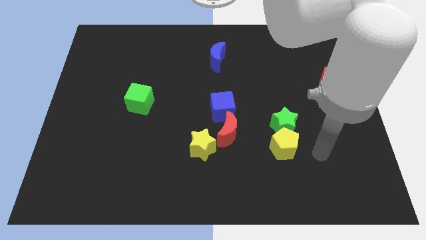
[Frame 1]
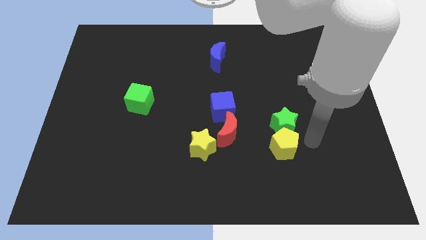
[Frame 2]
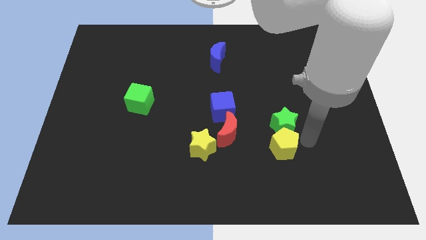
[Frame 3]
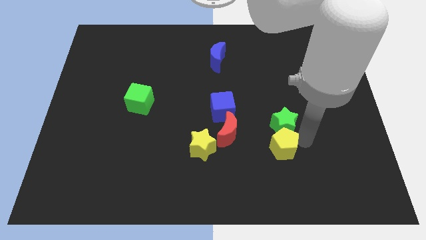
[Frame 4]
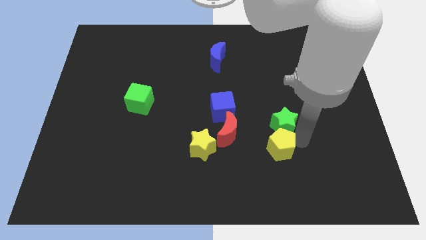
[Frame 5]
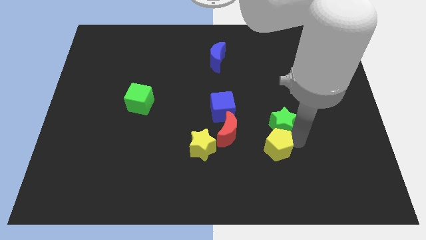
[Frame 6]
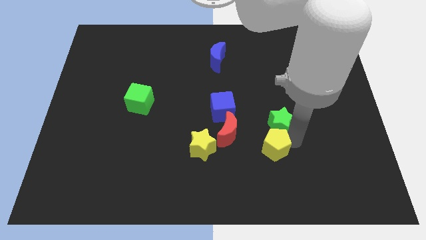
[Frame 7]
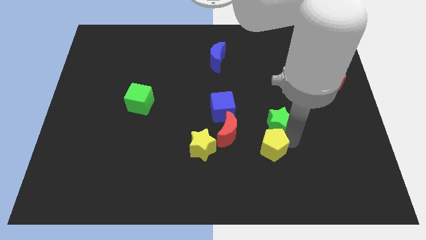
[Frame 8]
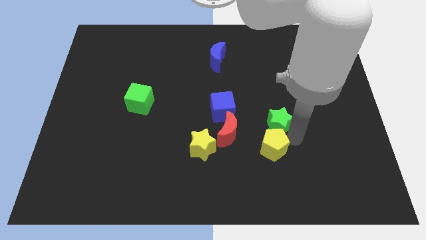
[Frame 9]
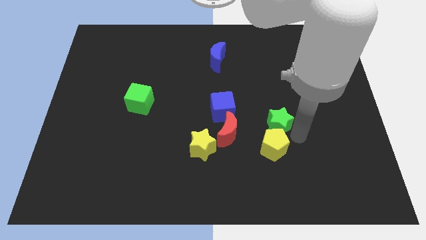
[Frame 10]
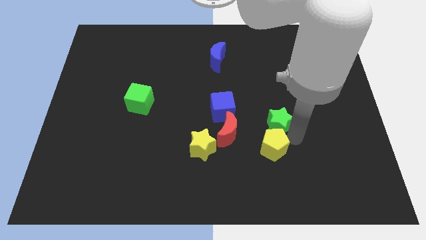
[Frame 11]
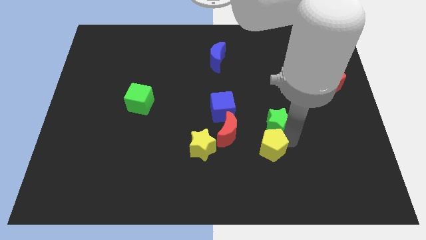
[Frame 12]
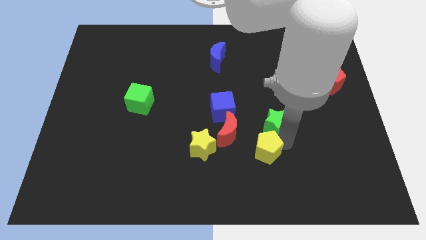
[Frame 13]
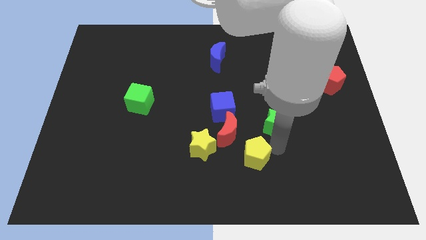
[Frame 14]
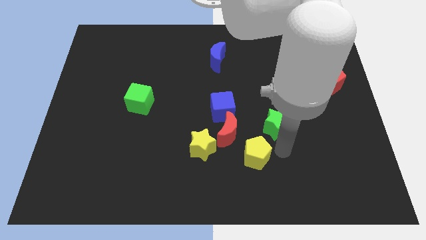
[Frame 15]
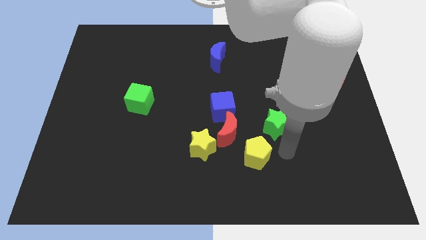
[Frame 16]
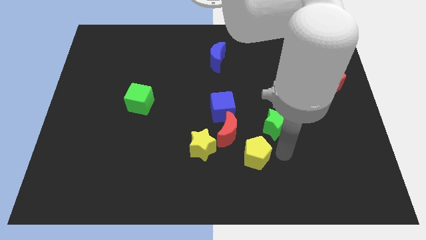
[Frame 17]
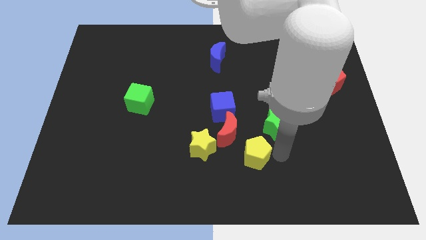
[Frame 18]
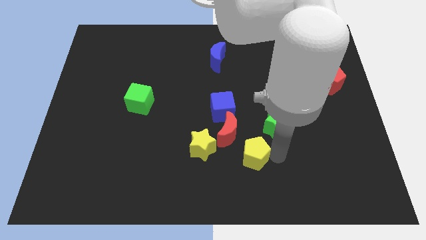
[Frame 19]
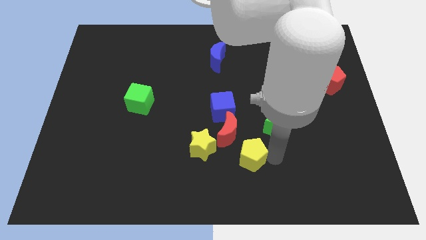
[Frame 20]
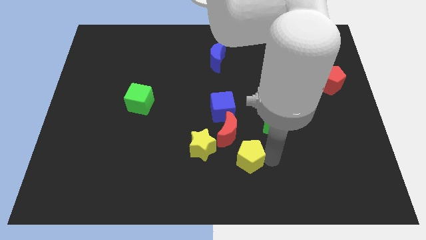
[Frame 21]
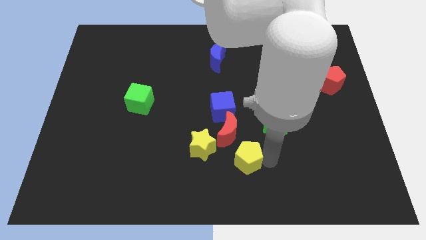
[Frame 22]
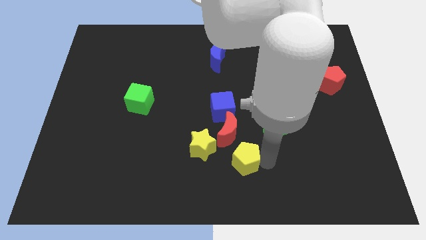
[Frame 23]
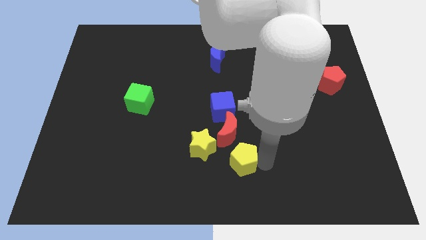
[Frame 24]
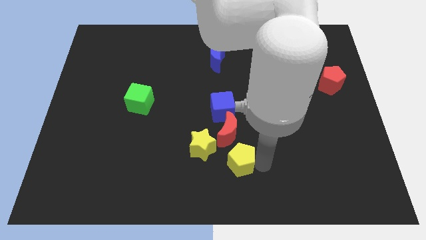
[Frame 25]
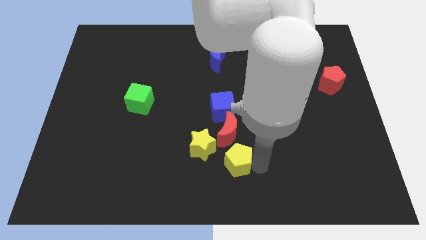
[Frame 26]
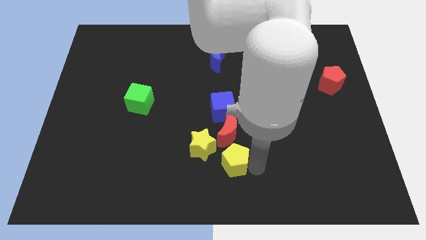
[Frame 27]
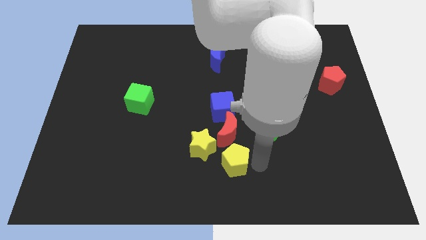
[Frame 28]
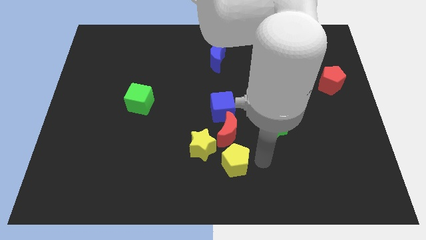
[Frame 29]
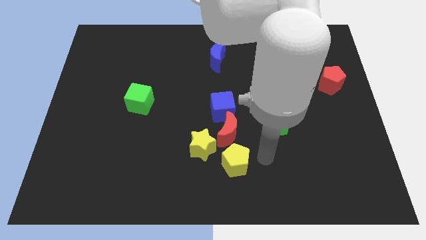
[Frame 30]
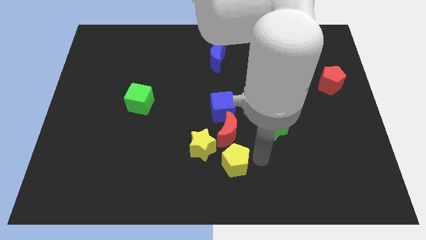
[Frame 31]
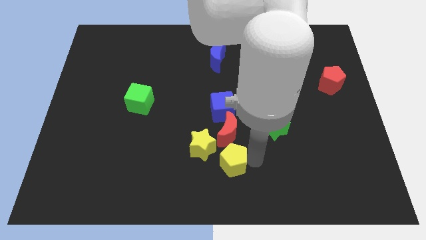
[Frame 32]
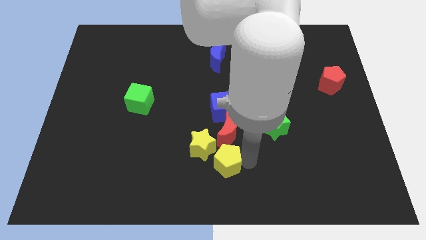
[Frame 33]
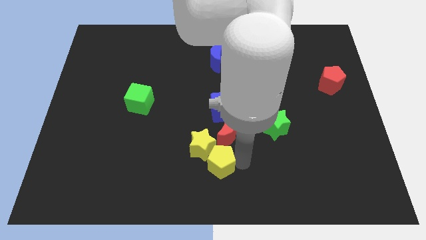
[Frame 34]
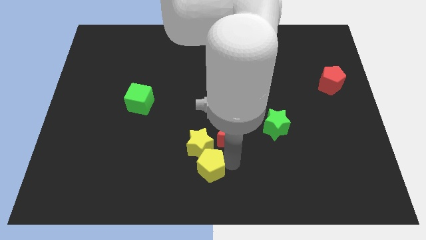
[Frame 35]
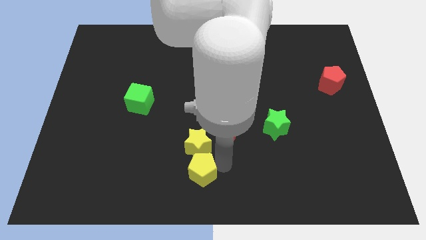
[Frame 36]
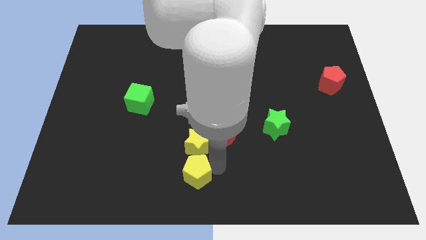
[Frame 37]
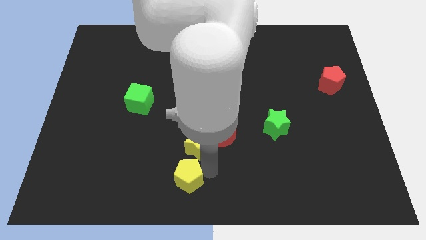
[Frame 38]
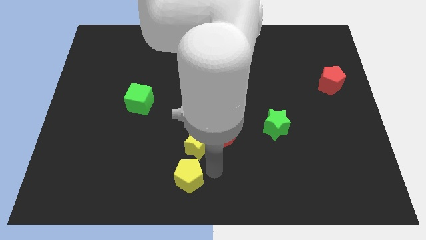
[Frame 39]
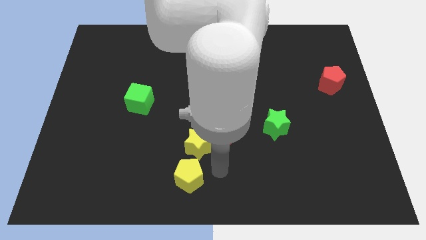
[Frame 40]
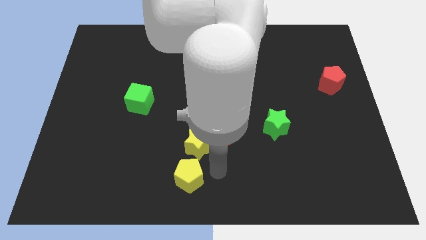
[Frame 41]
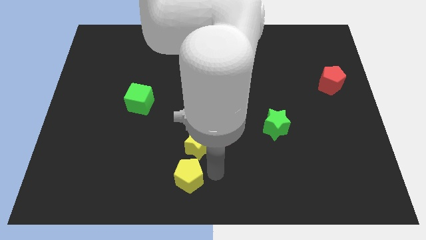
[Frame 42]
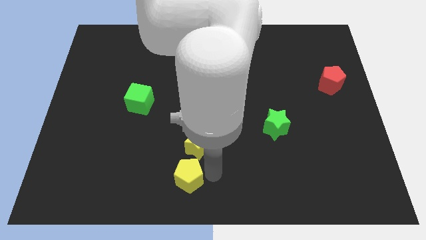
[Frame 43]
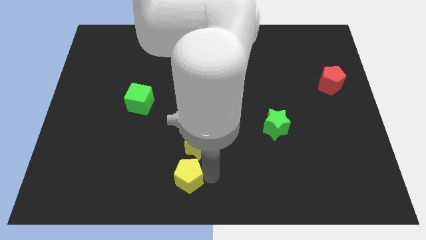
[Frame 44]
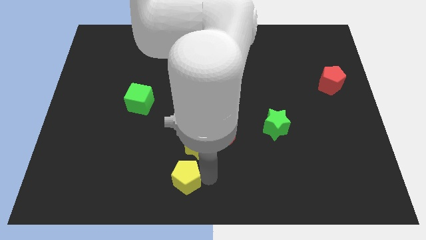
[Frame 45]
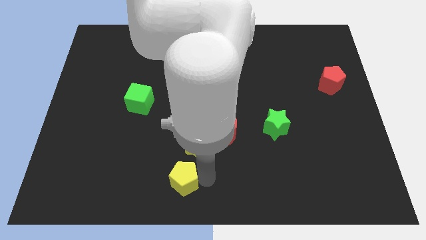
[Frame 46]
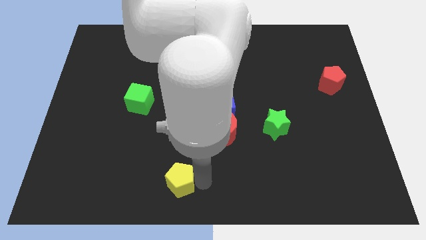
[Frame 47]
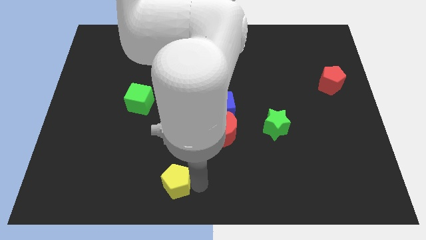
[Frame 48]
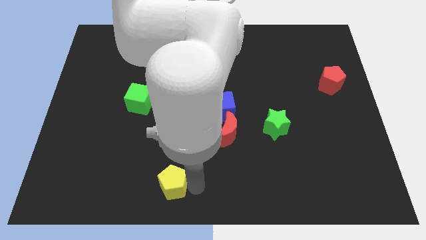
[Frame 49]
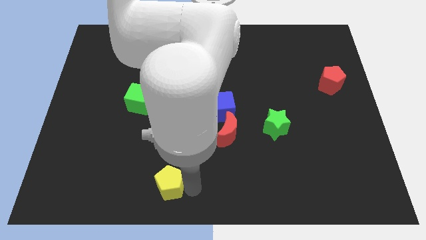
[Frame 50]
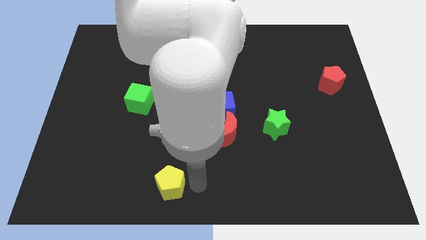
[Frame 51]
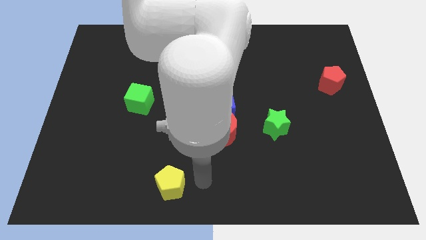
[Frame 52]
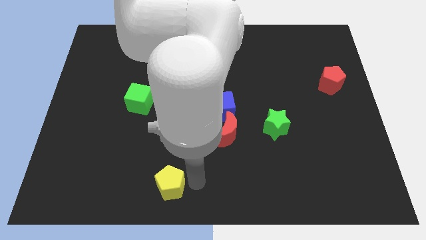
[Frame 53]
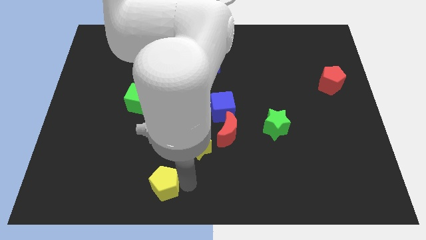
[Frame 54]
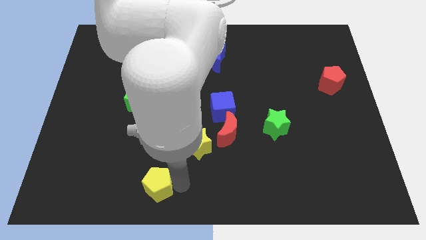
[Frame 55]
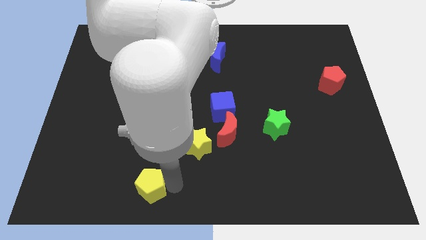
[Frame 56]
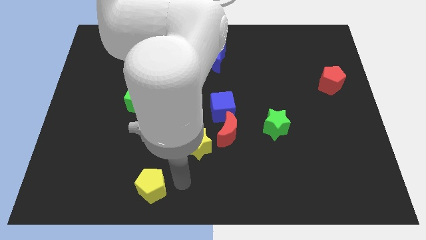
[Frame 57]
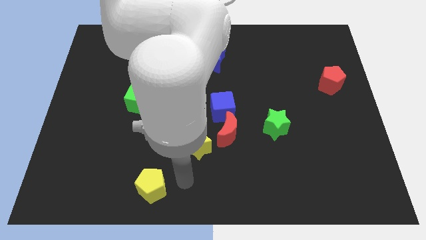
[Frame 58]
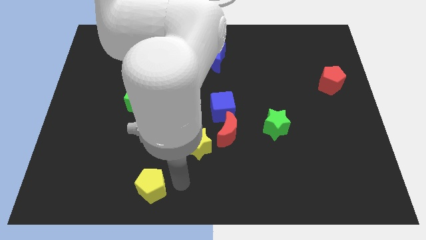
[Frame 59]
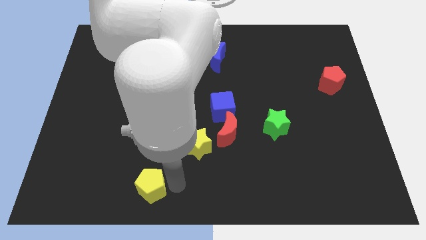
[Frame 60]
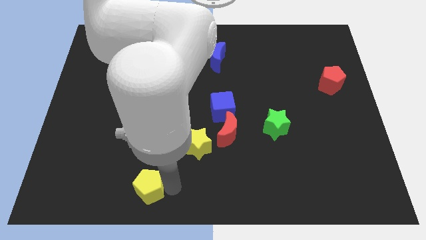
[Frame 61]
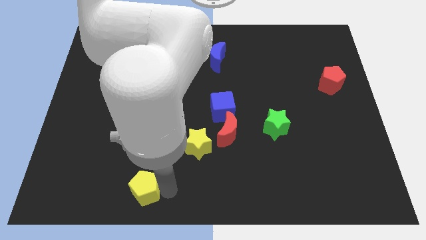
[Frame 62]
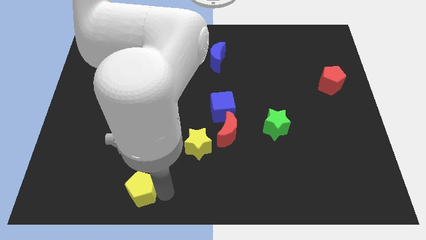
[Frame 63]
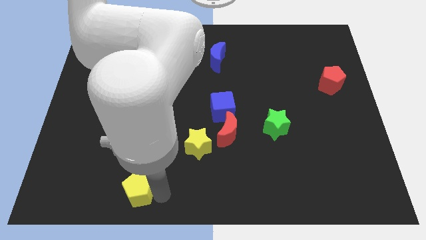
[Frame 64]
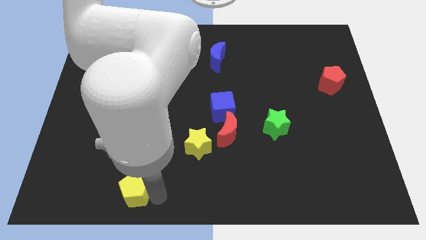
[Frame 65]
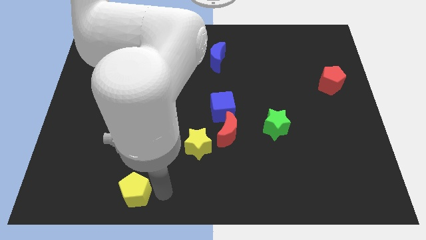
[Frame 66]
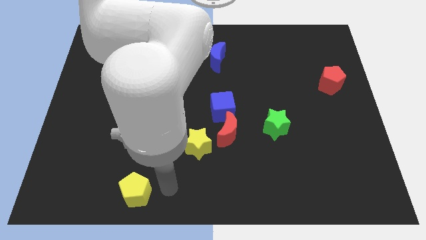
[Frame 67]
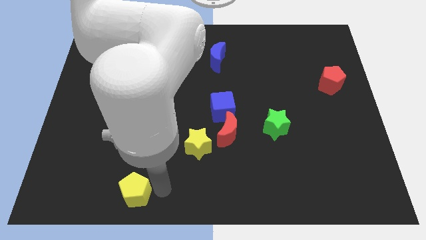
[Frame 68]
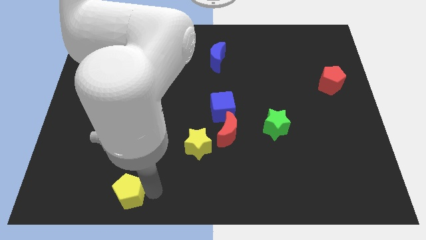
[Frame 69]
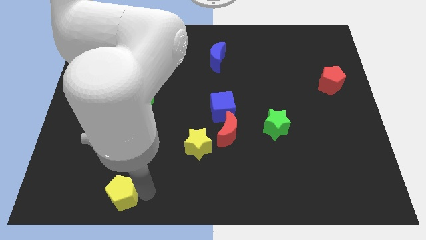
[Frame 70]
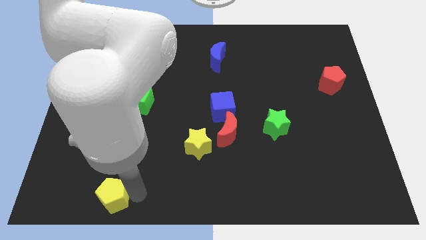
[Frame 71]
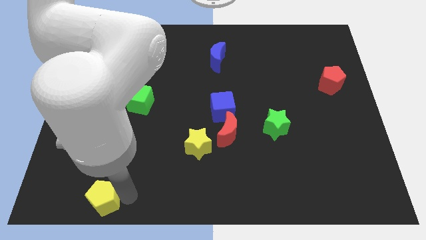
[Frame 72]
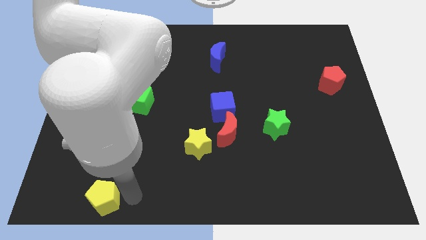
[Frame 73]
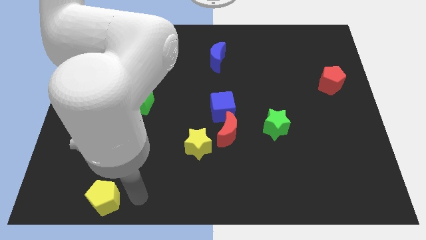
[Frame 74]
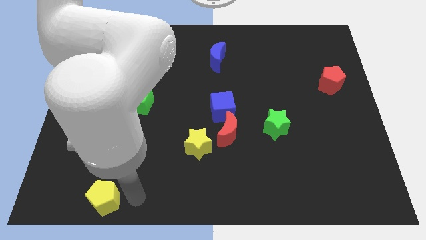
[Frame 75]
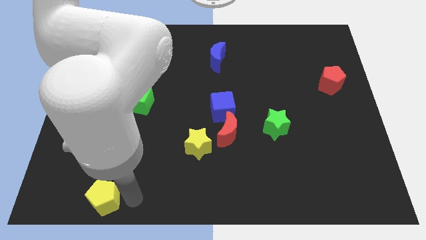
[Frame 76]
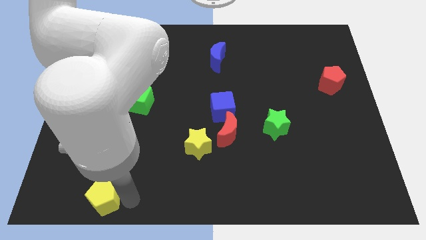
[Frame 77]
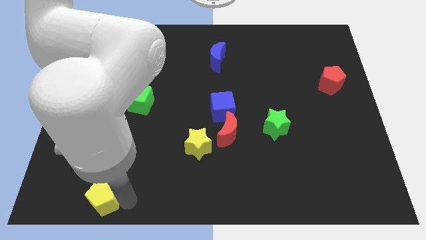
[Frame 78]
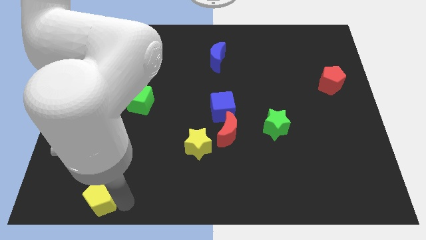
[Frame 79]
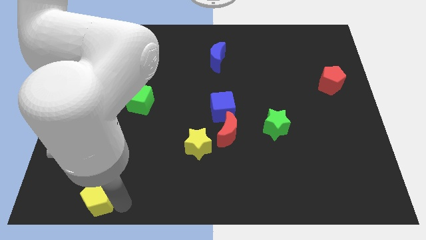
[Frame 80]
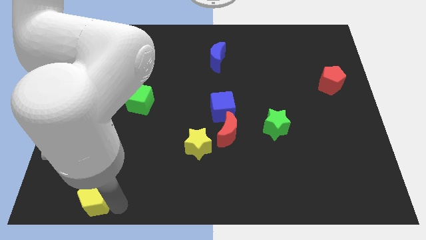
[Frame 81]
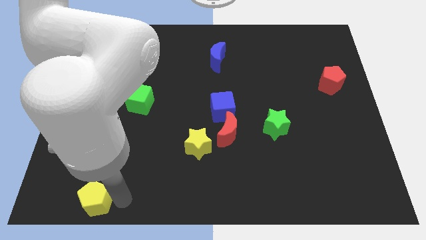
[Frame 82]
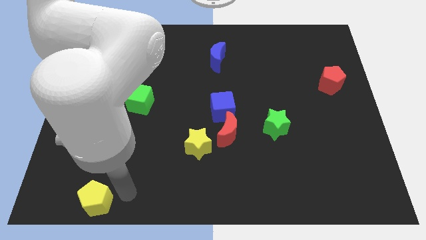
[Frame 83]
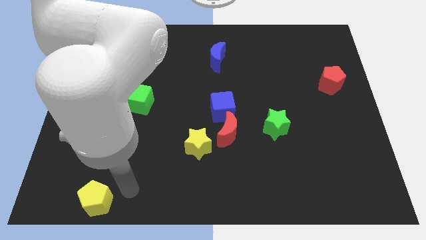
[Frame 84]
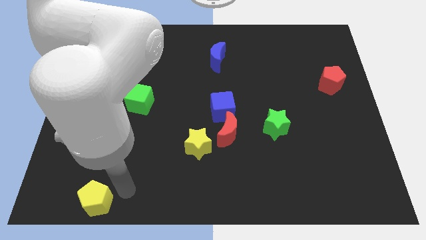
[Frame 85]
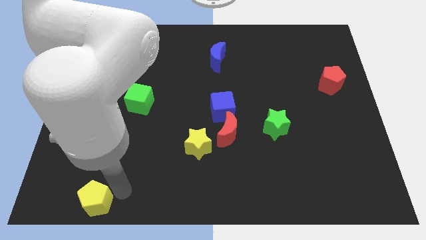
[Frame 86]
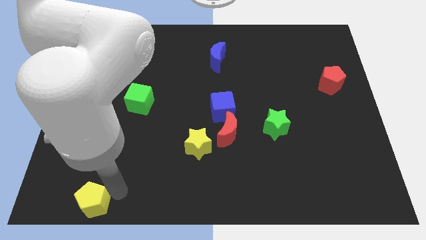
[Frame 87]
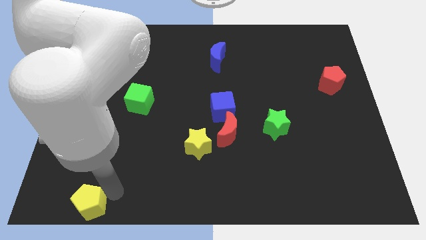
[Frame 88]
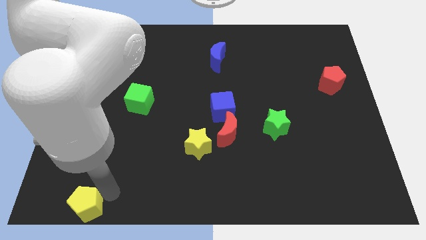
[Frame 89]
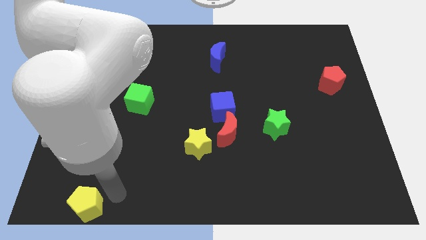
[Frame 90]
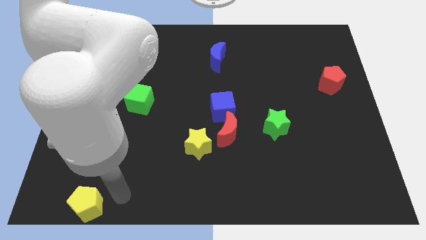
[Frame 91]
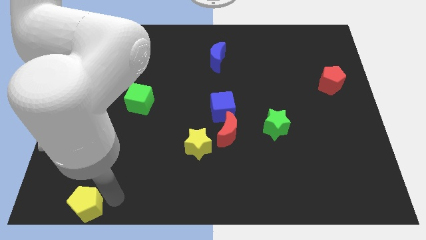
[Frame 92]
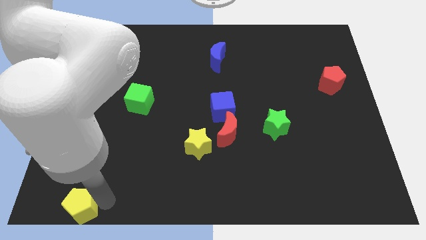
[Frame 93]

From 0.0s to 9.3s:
push the yellow pentagon to the bottom left of the board
